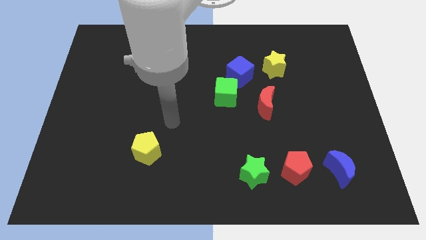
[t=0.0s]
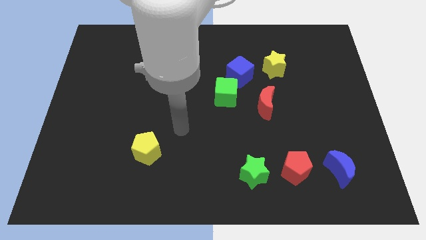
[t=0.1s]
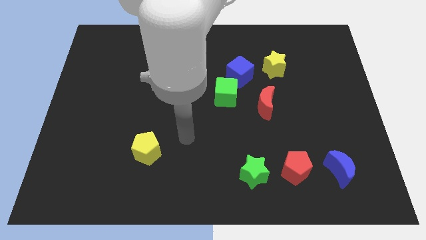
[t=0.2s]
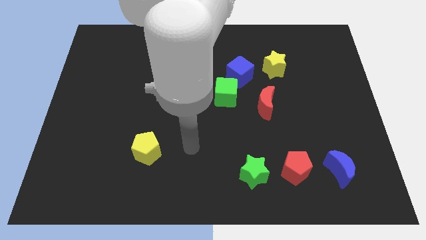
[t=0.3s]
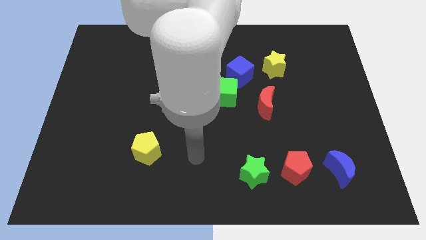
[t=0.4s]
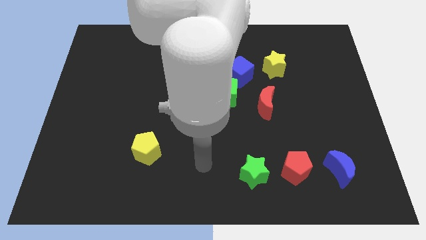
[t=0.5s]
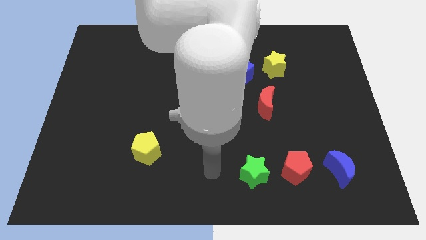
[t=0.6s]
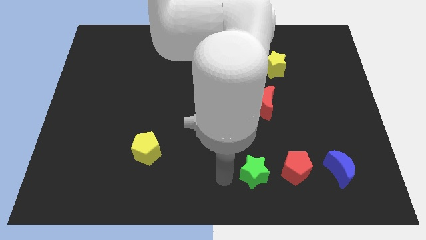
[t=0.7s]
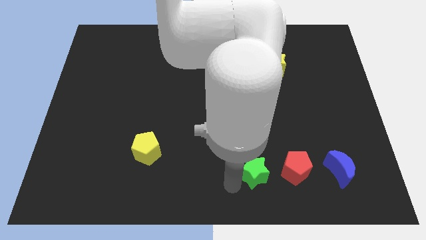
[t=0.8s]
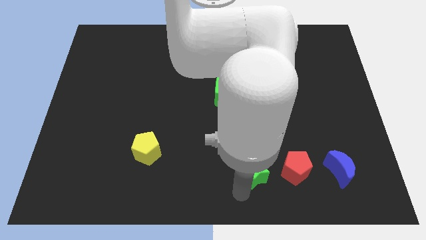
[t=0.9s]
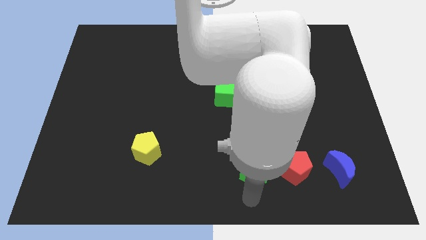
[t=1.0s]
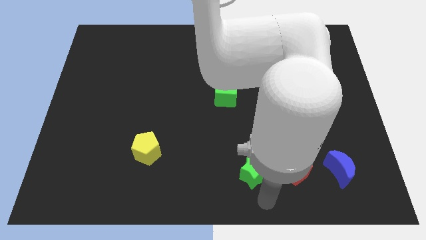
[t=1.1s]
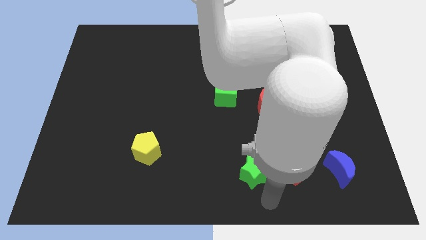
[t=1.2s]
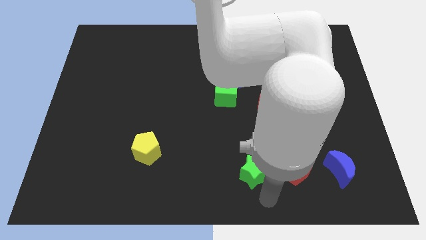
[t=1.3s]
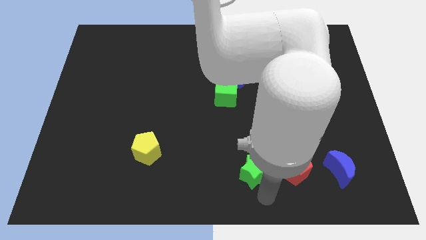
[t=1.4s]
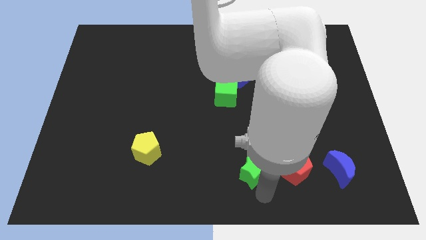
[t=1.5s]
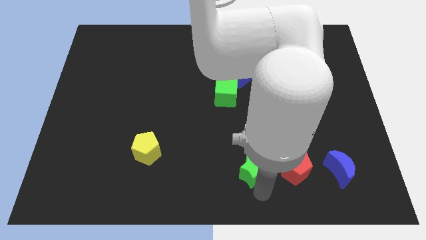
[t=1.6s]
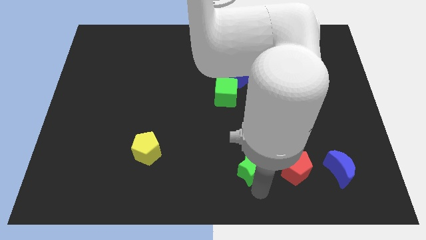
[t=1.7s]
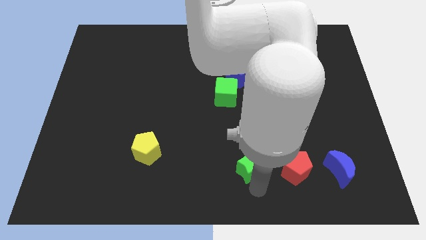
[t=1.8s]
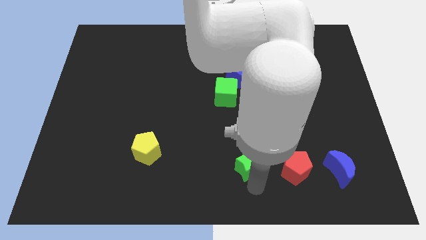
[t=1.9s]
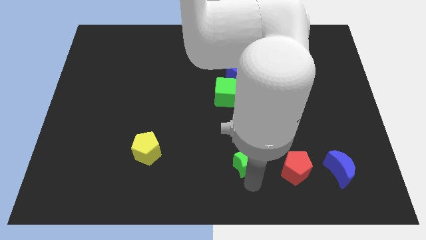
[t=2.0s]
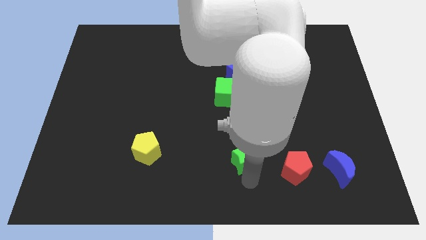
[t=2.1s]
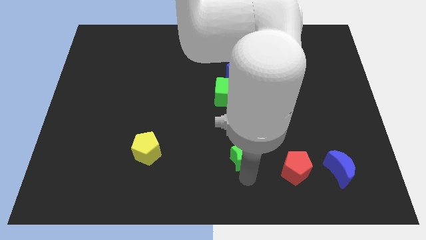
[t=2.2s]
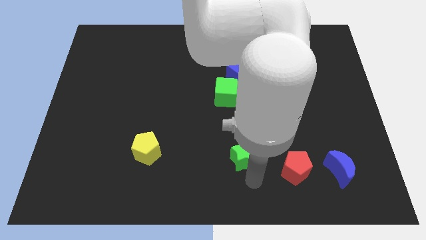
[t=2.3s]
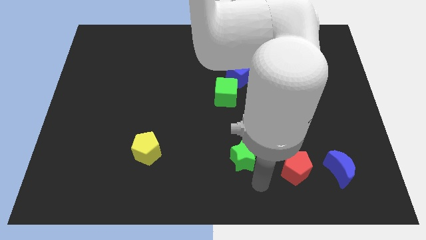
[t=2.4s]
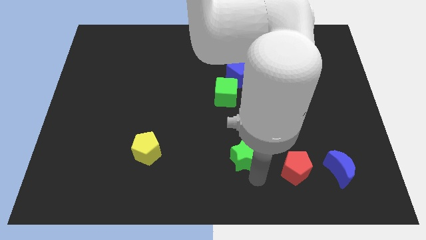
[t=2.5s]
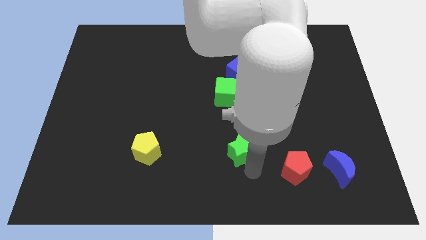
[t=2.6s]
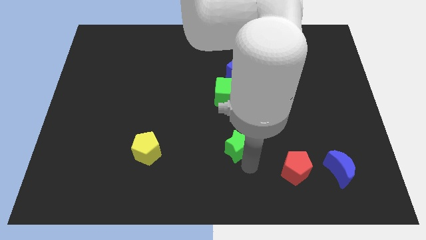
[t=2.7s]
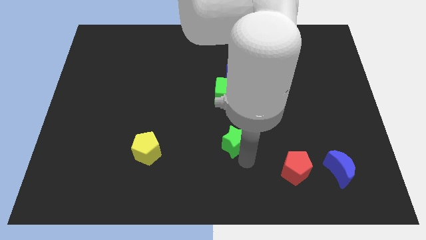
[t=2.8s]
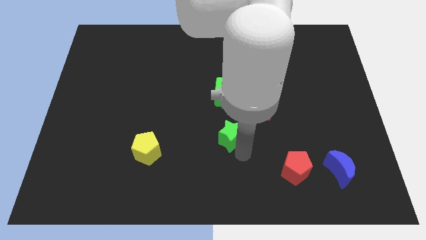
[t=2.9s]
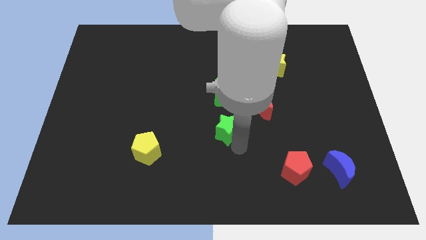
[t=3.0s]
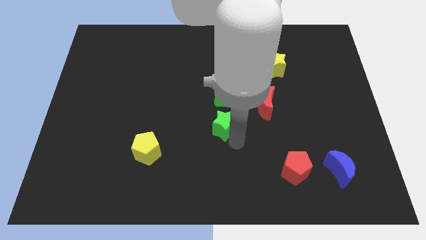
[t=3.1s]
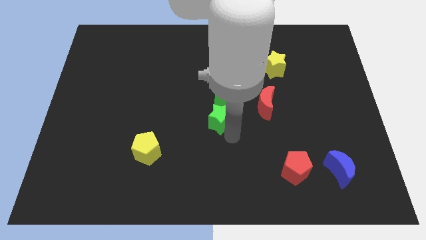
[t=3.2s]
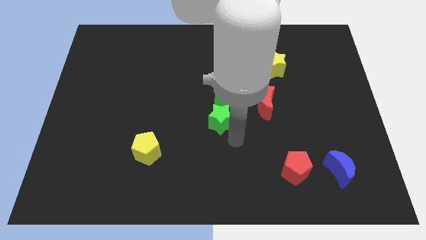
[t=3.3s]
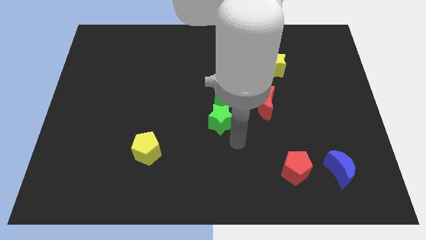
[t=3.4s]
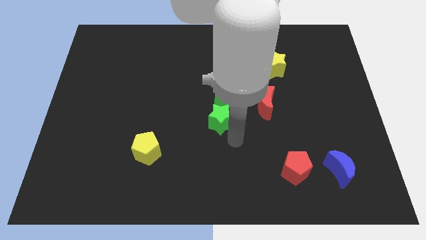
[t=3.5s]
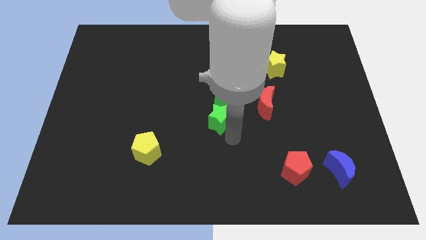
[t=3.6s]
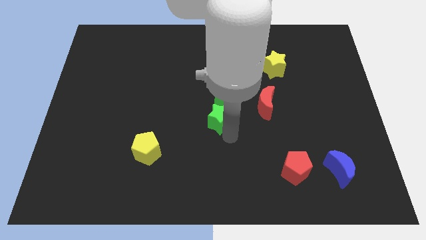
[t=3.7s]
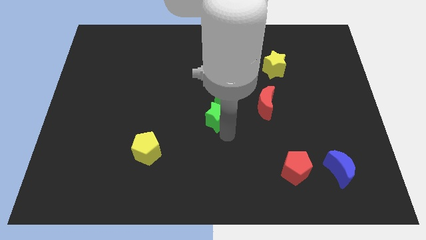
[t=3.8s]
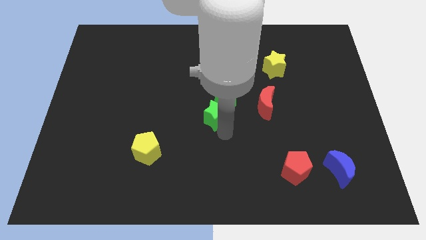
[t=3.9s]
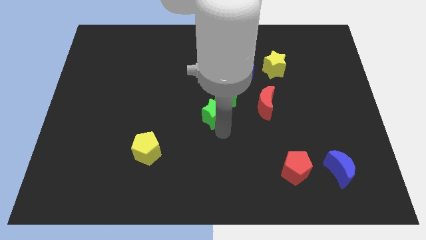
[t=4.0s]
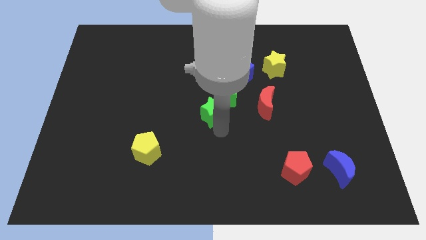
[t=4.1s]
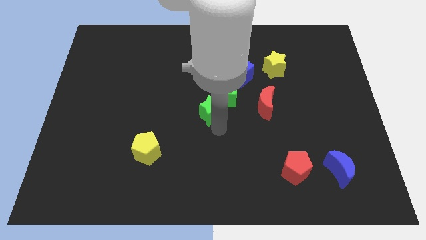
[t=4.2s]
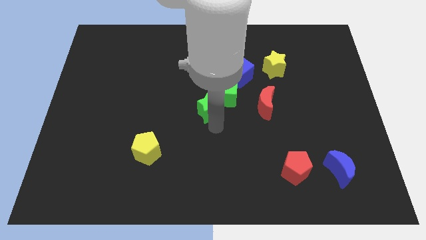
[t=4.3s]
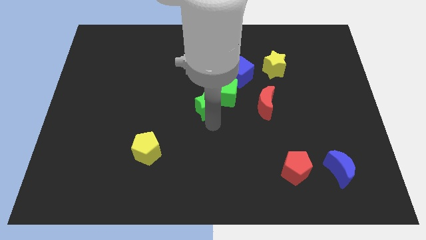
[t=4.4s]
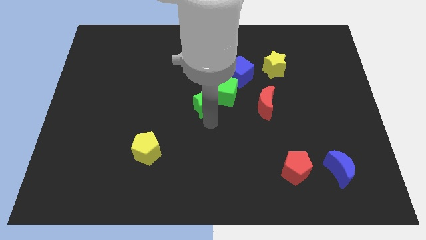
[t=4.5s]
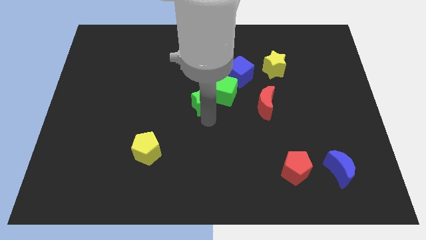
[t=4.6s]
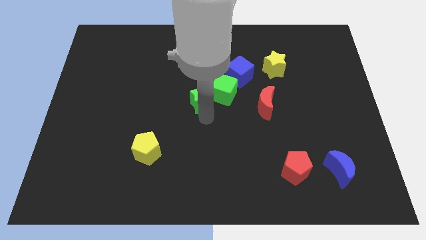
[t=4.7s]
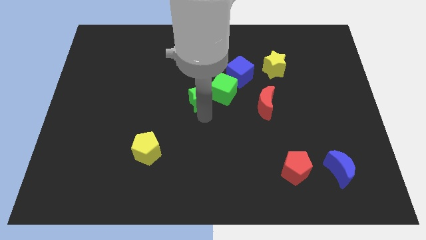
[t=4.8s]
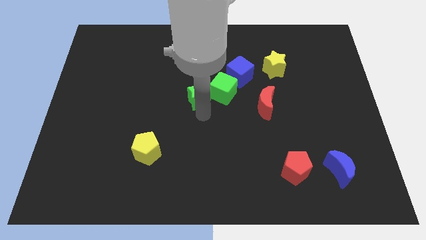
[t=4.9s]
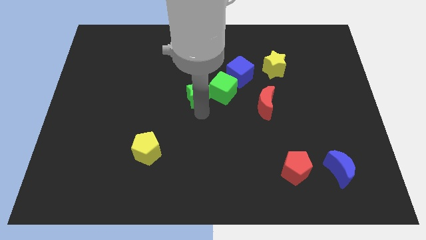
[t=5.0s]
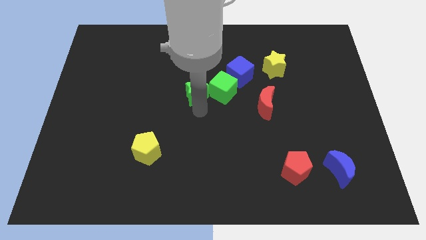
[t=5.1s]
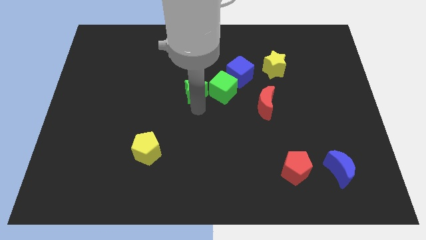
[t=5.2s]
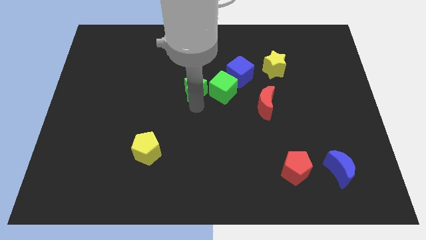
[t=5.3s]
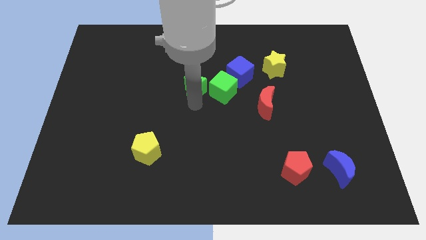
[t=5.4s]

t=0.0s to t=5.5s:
slide the green star left of the blue cube

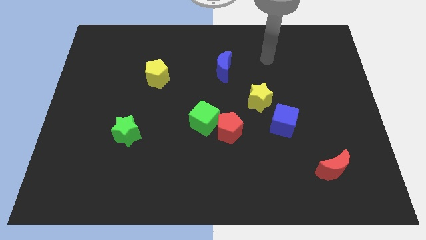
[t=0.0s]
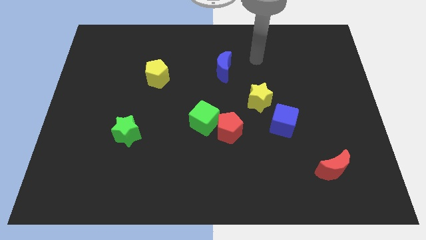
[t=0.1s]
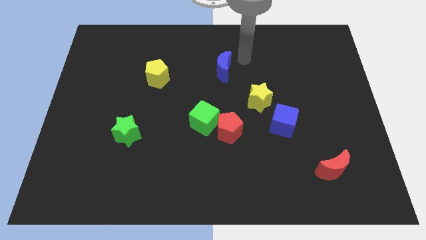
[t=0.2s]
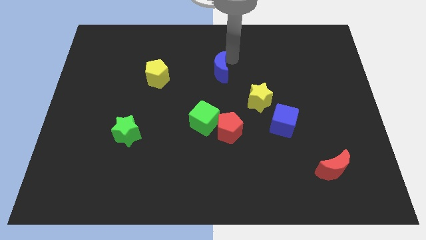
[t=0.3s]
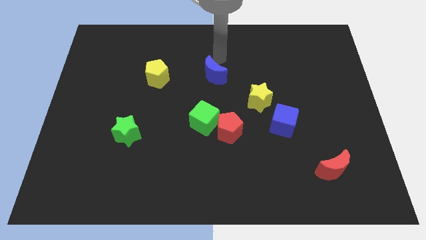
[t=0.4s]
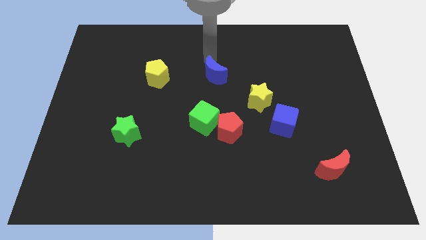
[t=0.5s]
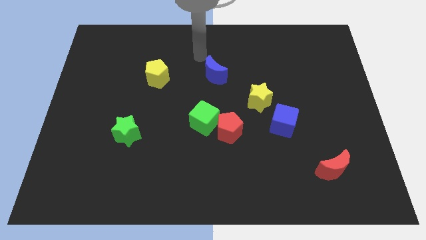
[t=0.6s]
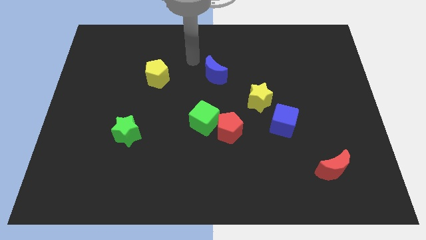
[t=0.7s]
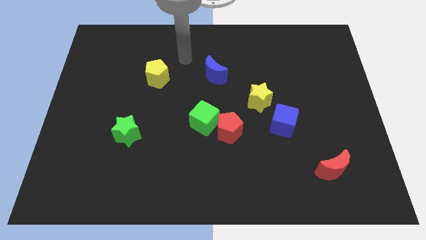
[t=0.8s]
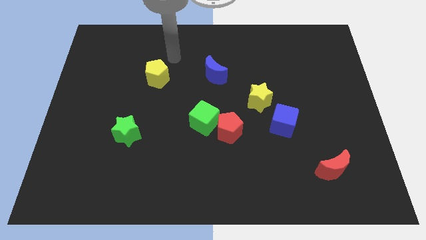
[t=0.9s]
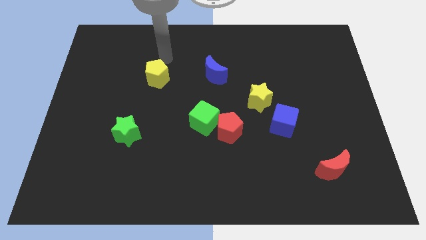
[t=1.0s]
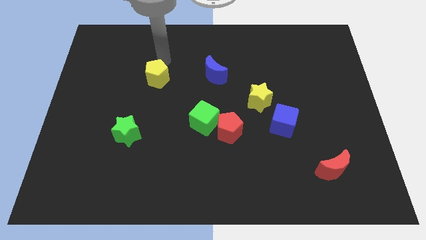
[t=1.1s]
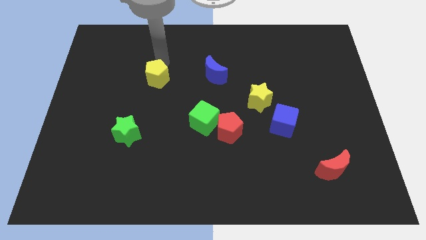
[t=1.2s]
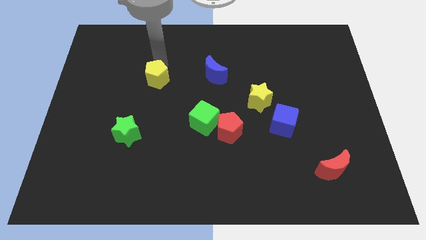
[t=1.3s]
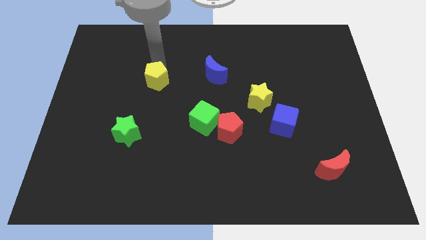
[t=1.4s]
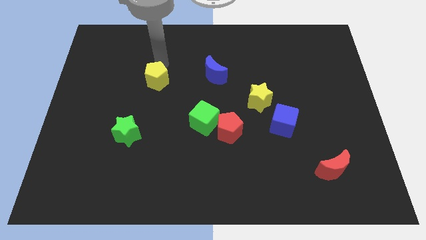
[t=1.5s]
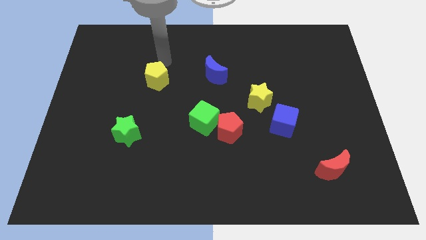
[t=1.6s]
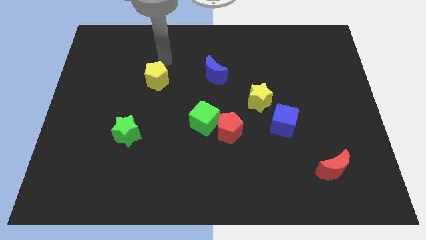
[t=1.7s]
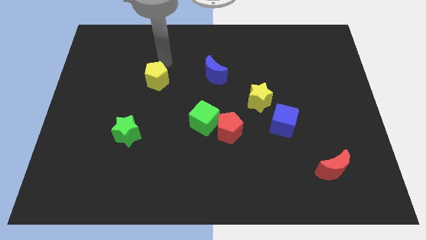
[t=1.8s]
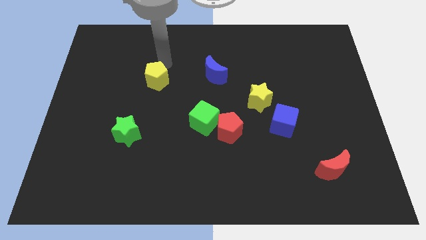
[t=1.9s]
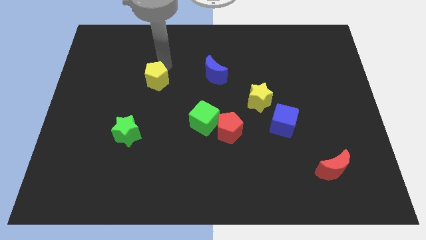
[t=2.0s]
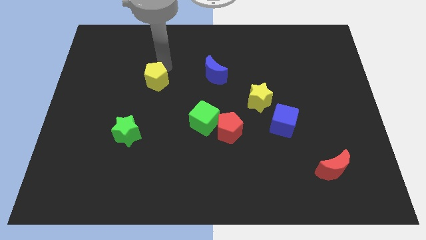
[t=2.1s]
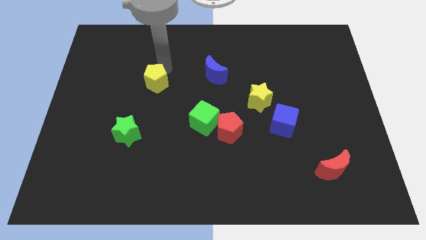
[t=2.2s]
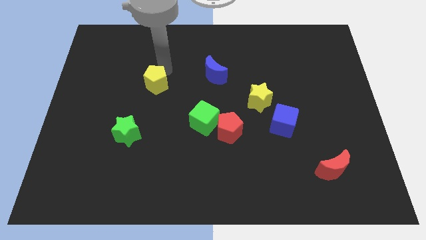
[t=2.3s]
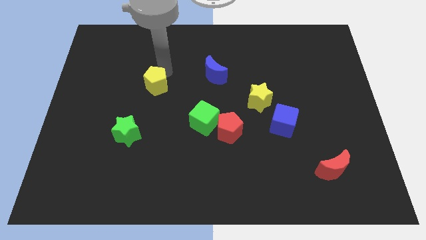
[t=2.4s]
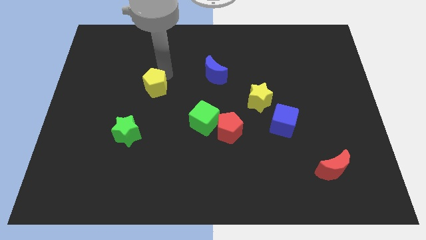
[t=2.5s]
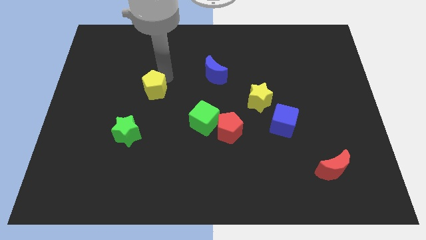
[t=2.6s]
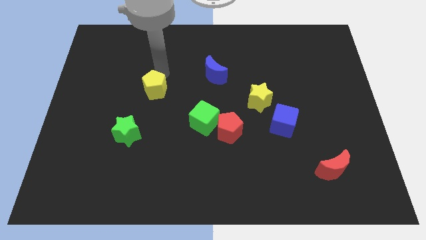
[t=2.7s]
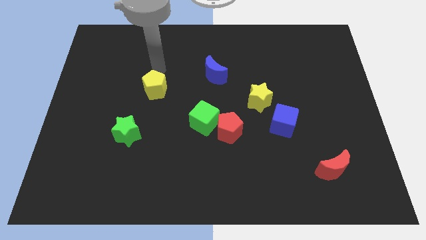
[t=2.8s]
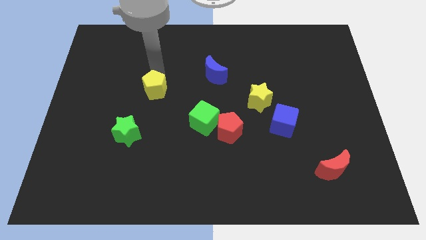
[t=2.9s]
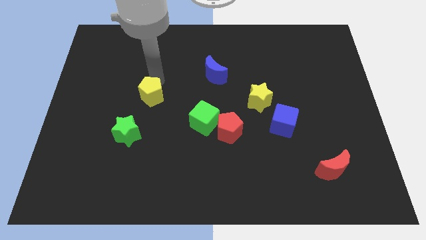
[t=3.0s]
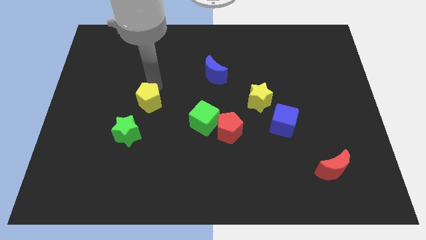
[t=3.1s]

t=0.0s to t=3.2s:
put the yellow pentagon to the top right side of the green star
